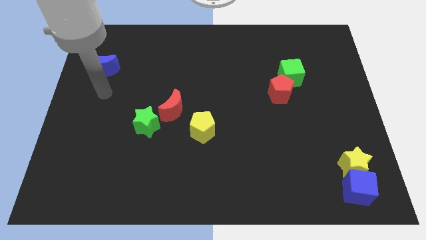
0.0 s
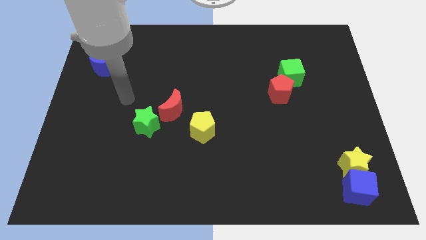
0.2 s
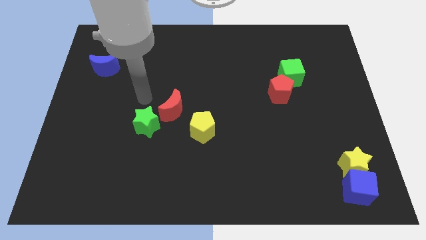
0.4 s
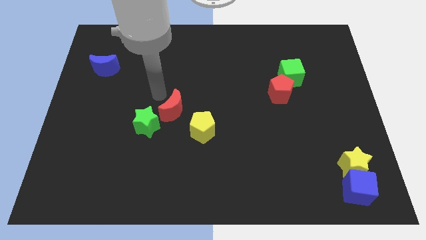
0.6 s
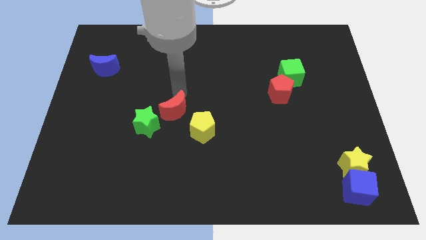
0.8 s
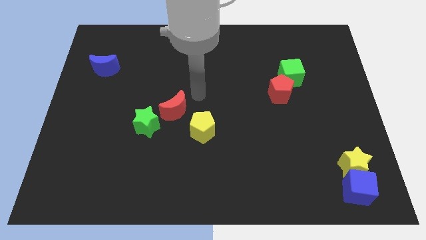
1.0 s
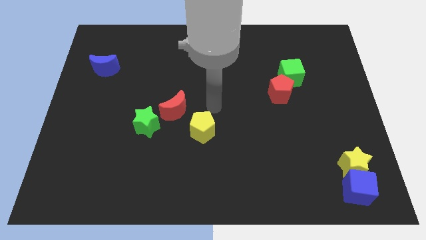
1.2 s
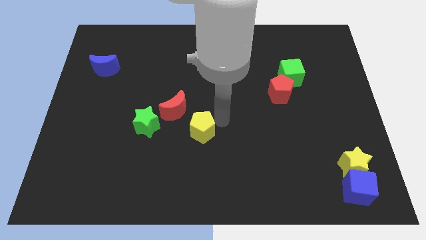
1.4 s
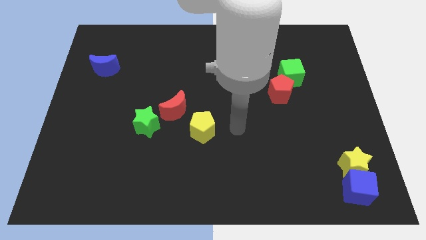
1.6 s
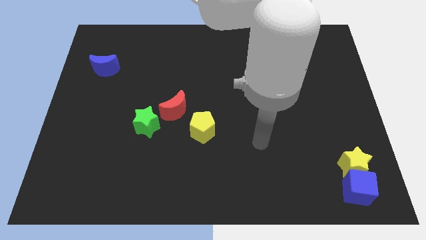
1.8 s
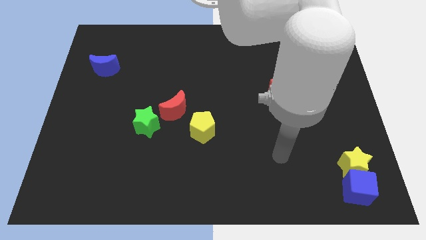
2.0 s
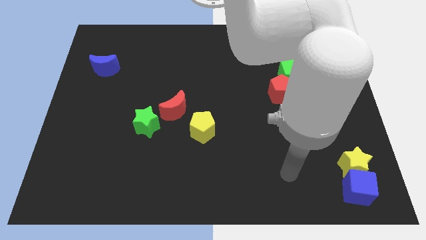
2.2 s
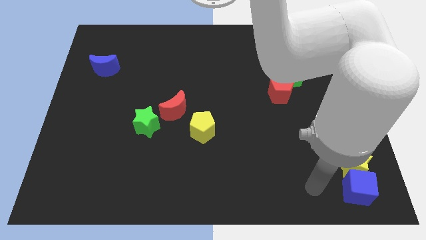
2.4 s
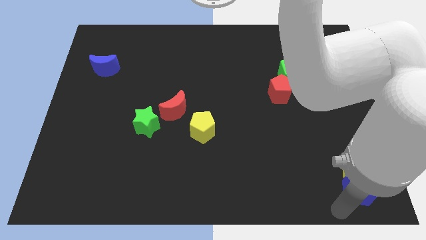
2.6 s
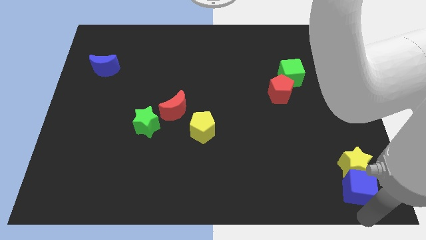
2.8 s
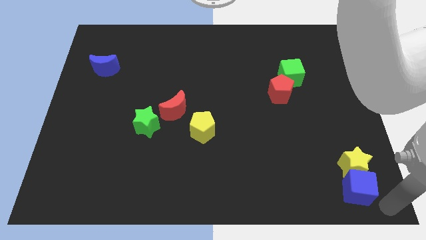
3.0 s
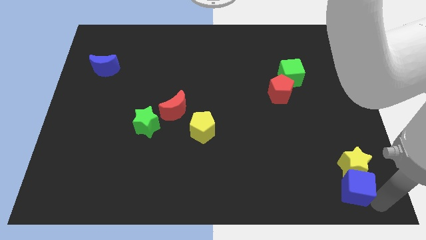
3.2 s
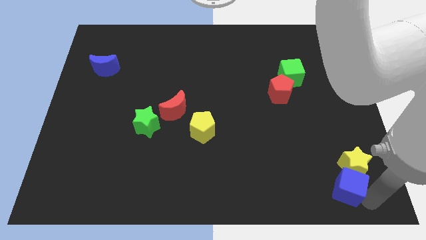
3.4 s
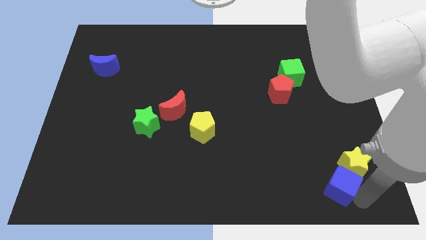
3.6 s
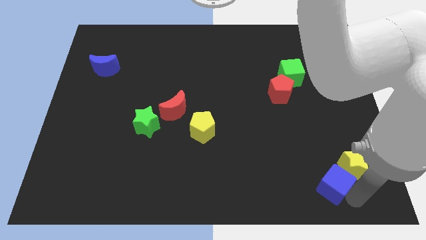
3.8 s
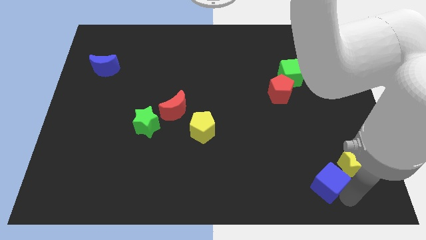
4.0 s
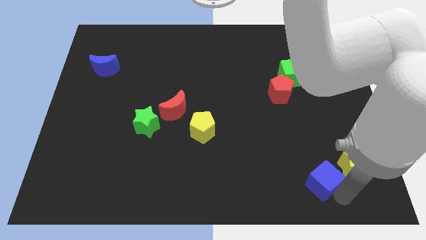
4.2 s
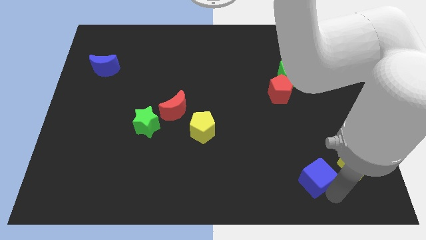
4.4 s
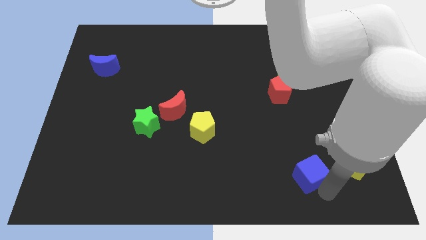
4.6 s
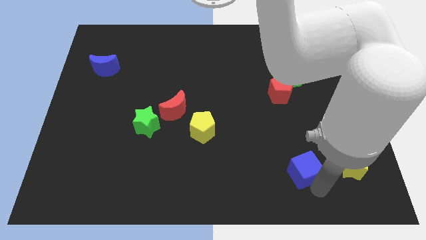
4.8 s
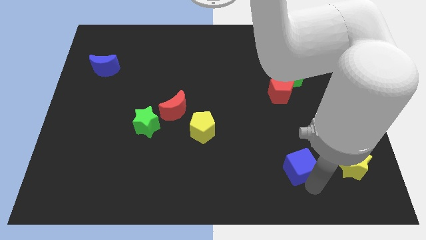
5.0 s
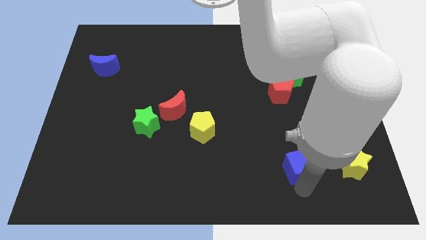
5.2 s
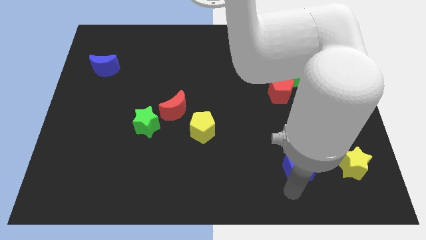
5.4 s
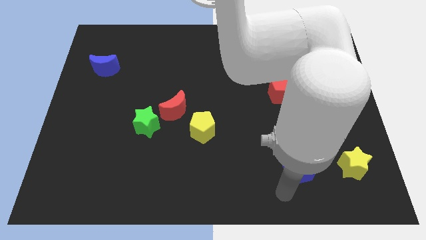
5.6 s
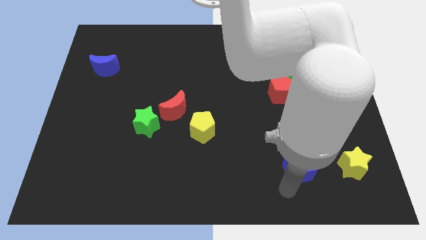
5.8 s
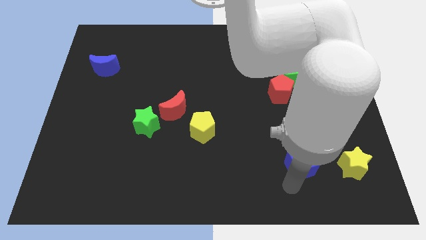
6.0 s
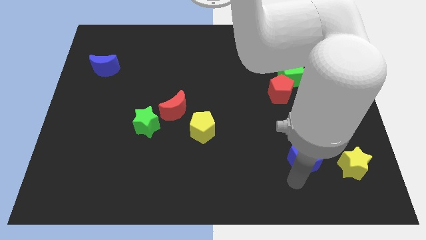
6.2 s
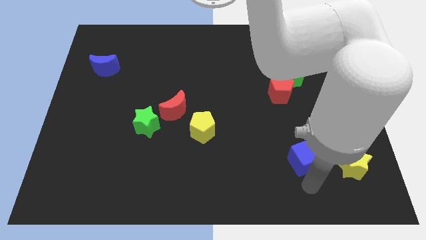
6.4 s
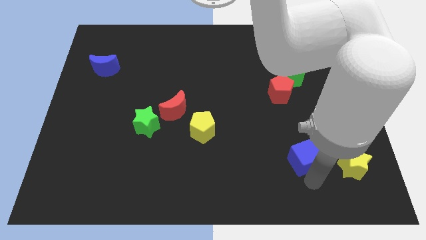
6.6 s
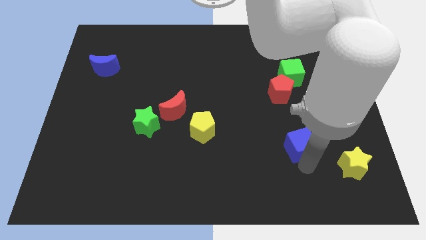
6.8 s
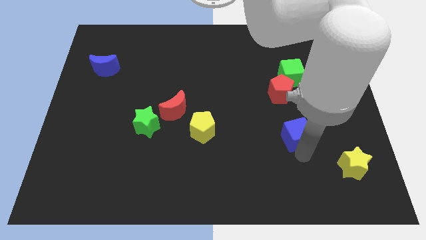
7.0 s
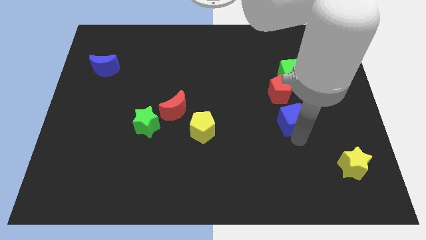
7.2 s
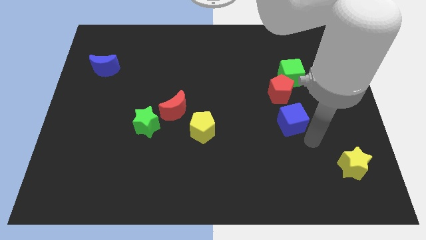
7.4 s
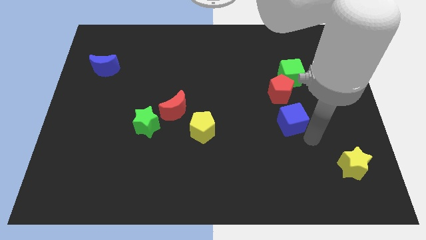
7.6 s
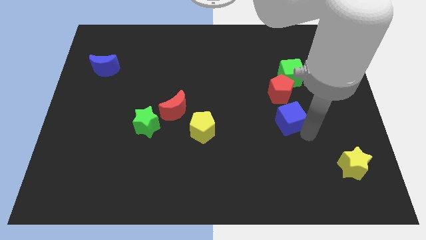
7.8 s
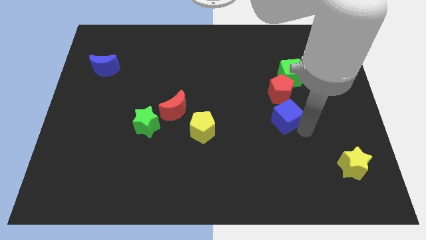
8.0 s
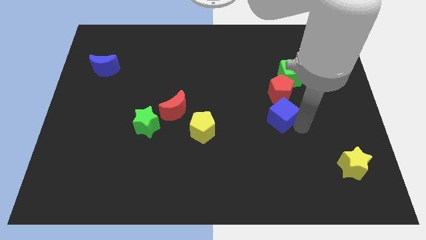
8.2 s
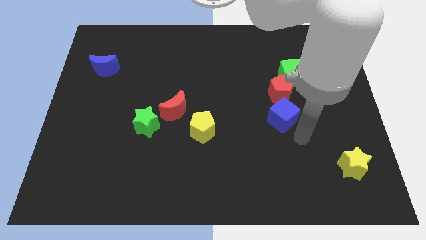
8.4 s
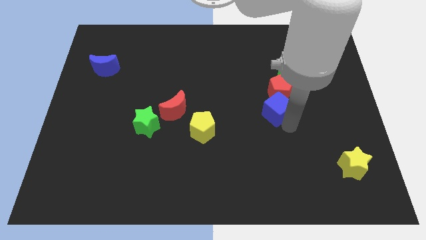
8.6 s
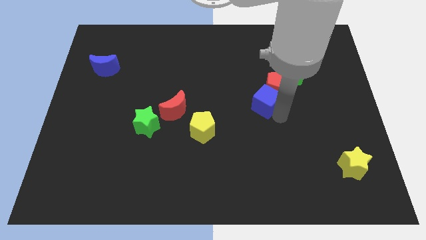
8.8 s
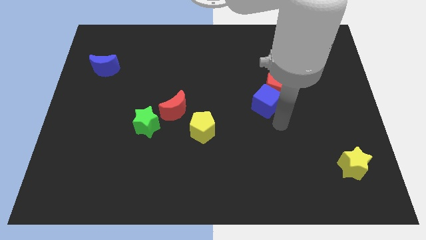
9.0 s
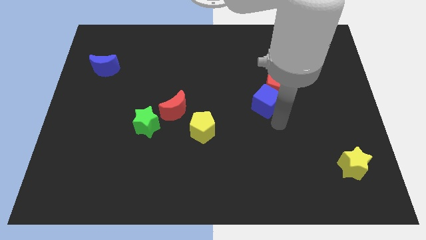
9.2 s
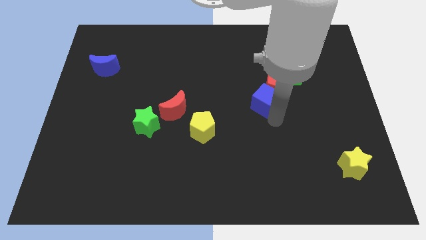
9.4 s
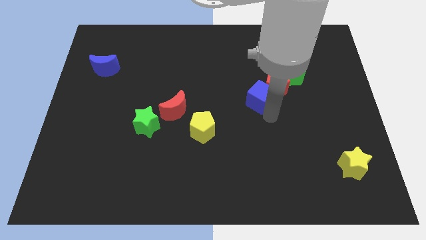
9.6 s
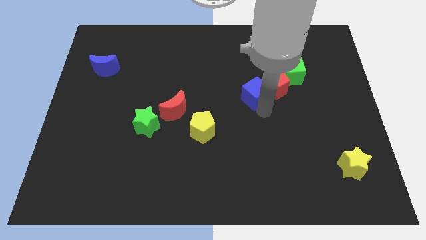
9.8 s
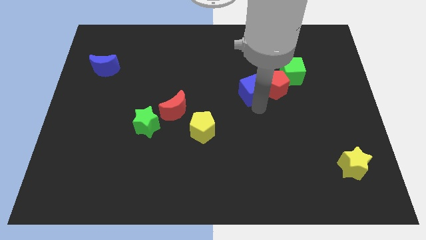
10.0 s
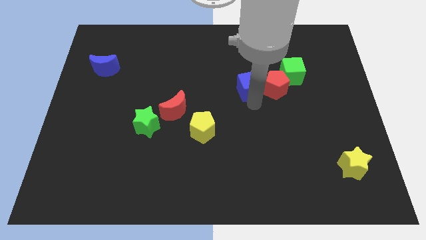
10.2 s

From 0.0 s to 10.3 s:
move the blue cube to the left of the green cube

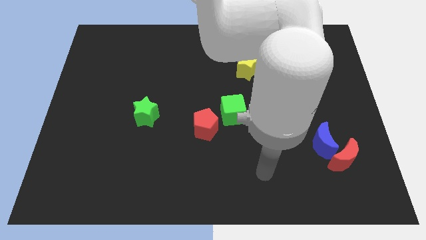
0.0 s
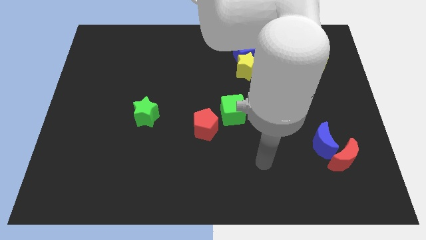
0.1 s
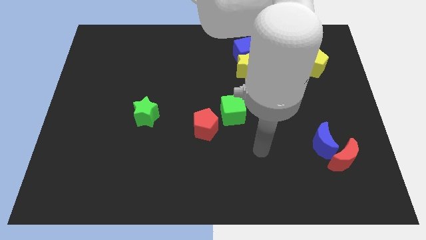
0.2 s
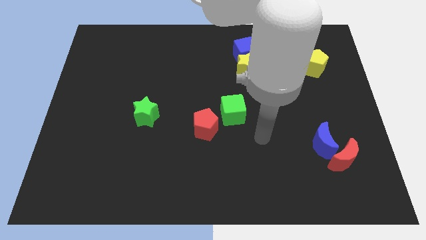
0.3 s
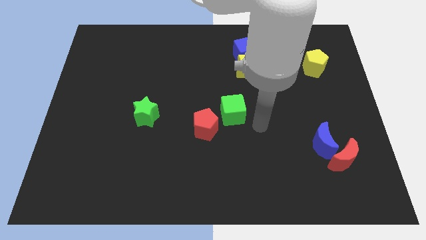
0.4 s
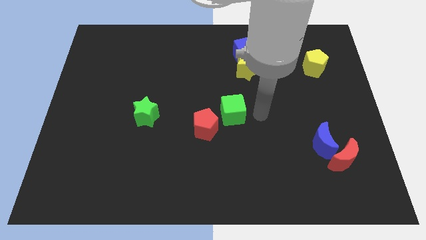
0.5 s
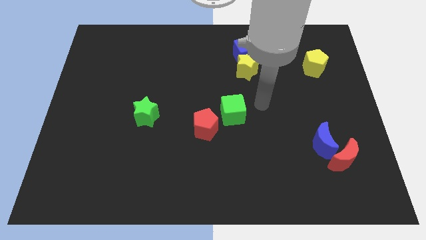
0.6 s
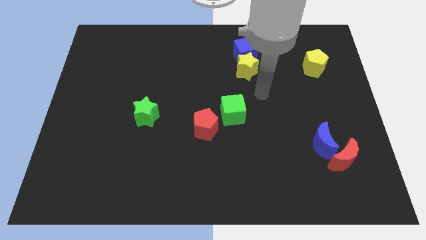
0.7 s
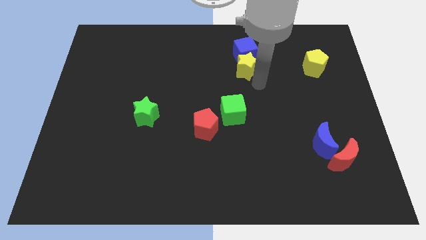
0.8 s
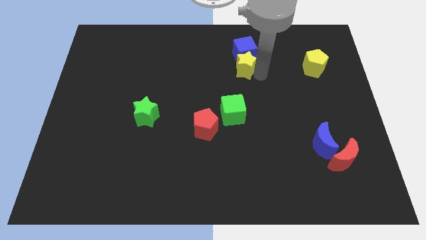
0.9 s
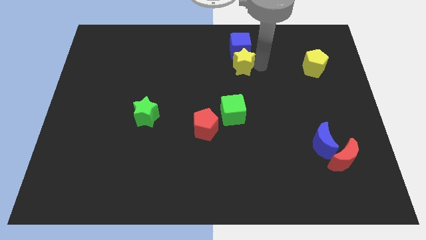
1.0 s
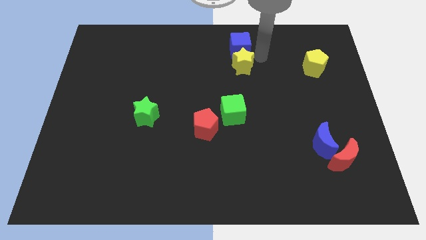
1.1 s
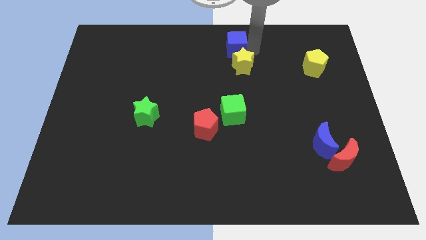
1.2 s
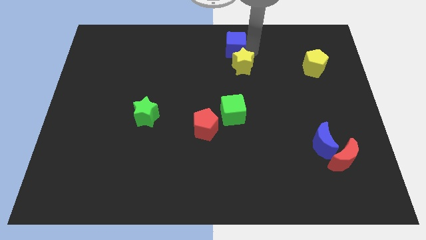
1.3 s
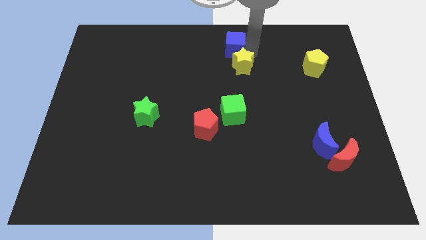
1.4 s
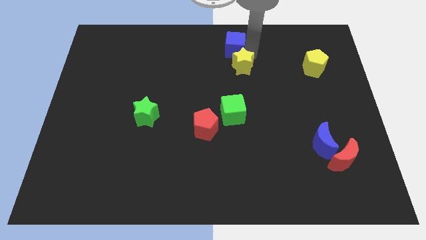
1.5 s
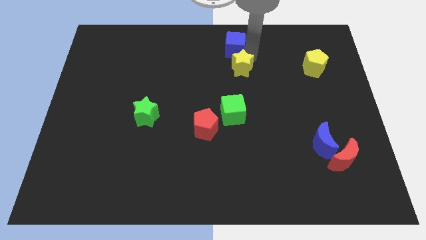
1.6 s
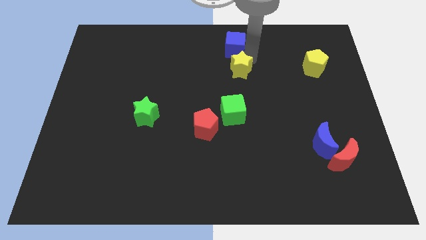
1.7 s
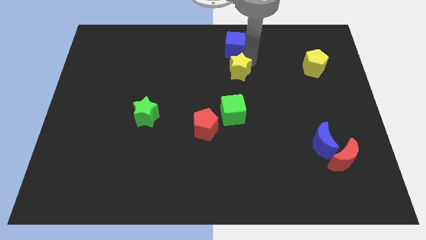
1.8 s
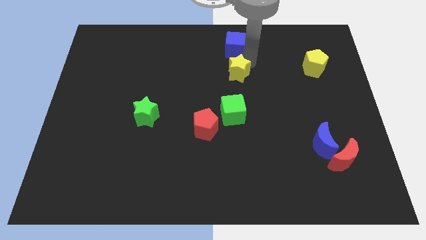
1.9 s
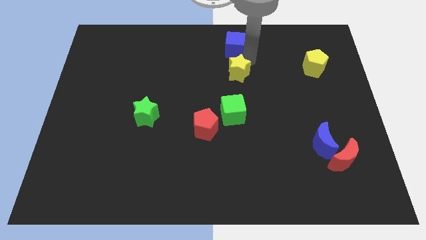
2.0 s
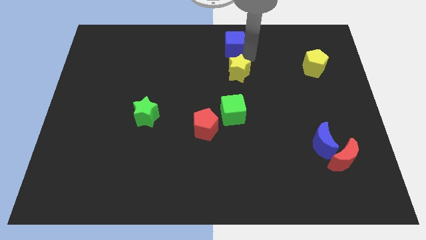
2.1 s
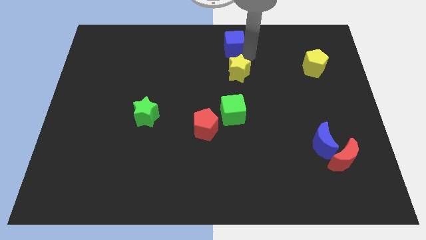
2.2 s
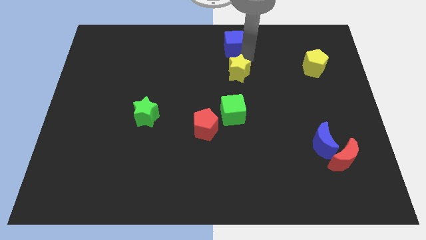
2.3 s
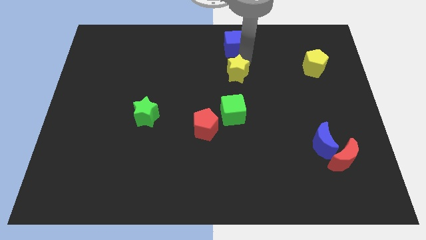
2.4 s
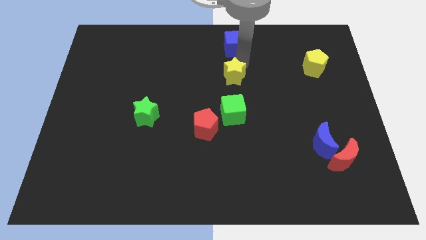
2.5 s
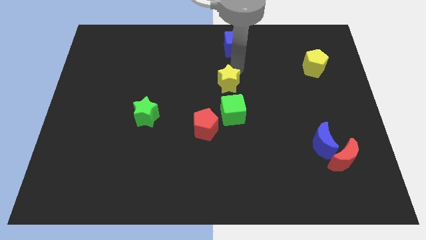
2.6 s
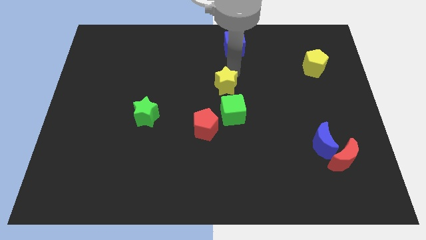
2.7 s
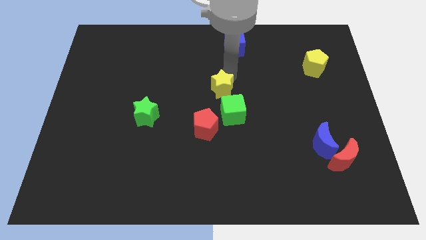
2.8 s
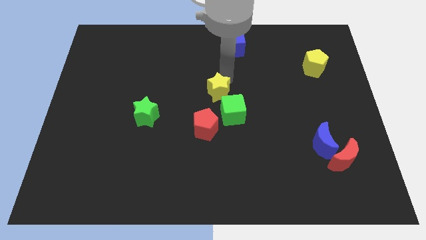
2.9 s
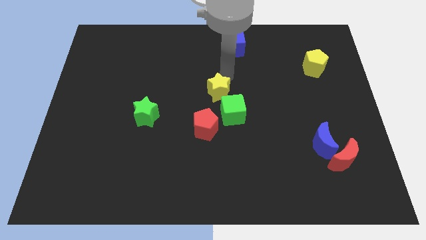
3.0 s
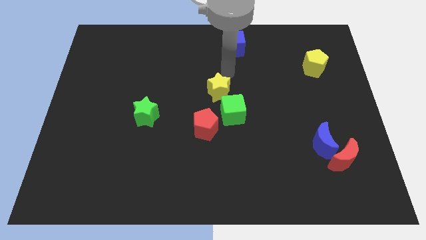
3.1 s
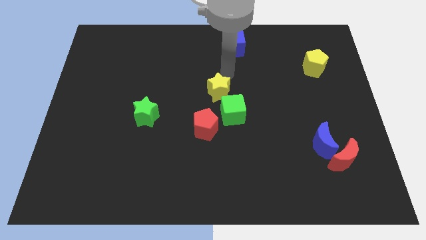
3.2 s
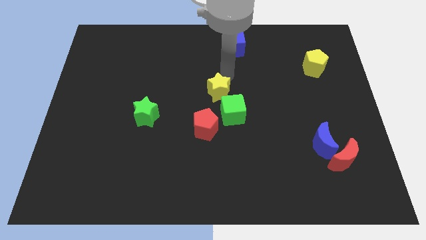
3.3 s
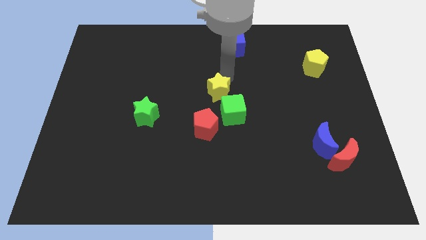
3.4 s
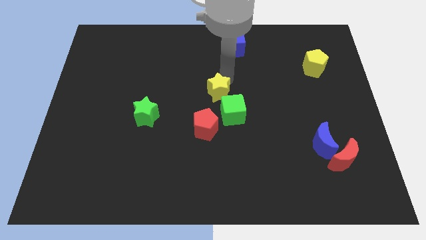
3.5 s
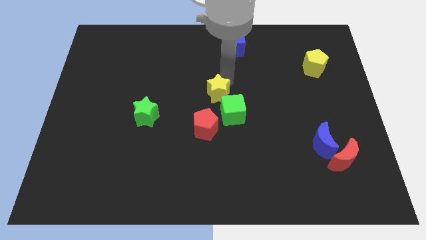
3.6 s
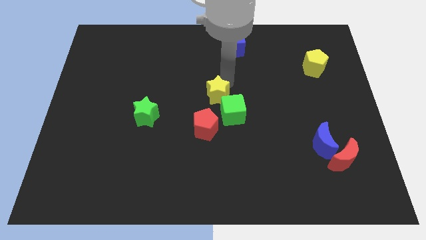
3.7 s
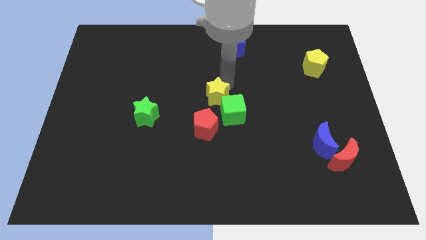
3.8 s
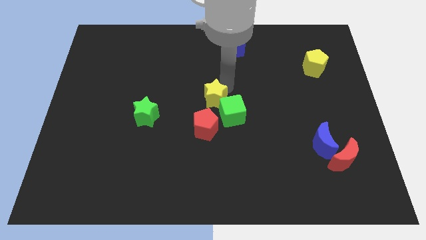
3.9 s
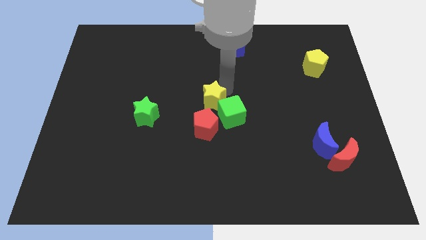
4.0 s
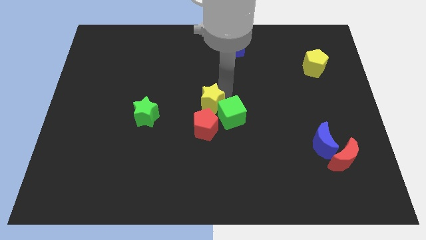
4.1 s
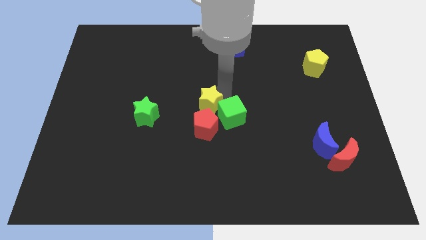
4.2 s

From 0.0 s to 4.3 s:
push the yellow star just right of the green star
